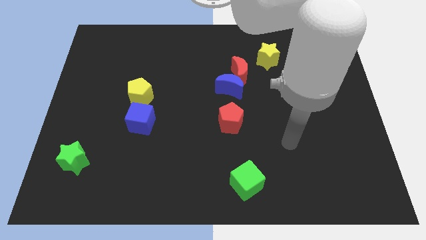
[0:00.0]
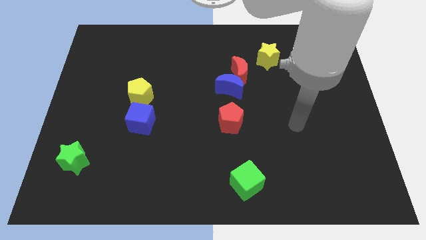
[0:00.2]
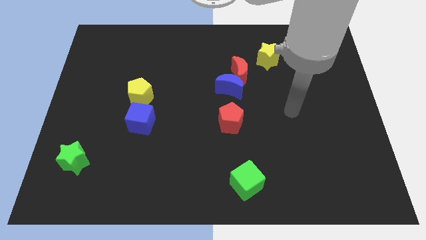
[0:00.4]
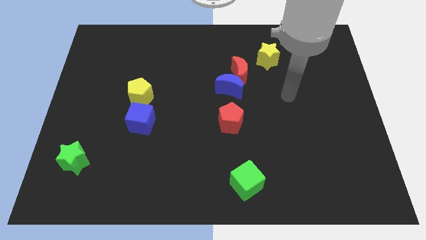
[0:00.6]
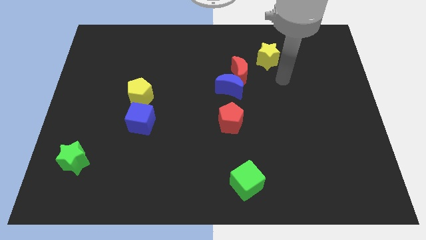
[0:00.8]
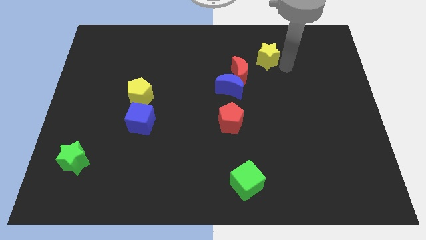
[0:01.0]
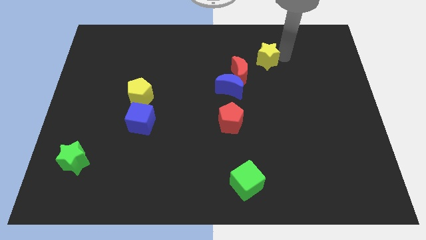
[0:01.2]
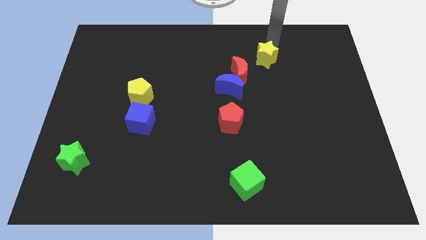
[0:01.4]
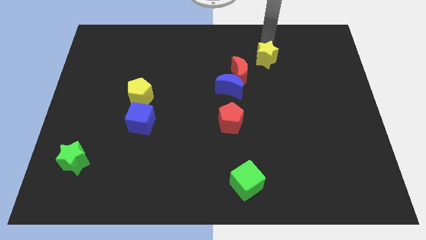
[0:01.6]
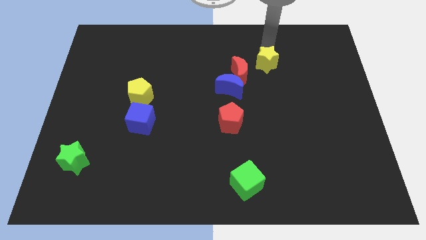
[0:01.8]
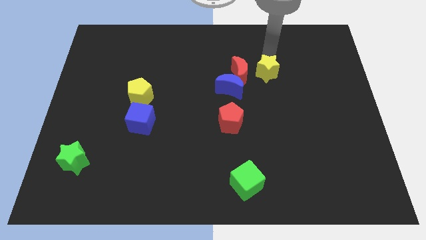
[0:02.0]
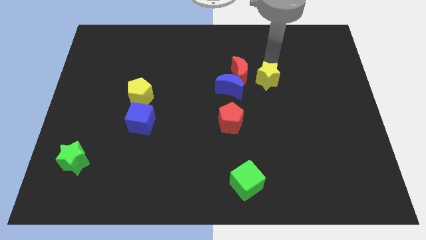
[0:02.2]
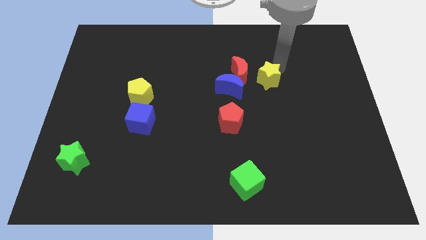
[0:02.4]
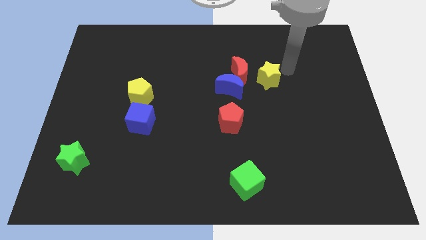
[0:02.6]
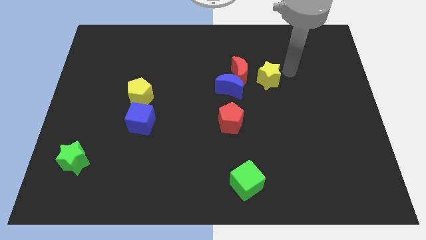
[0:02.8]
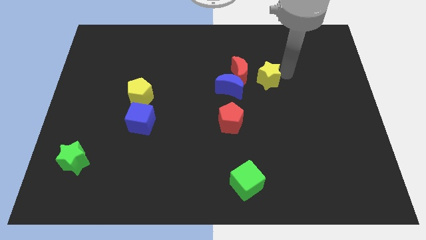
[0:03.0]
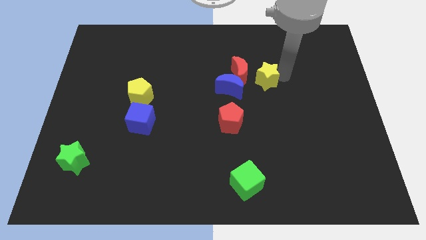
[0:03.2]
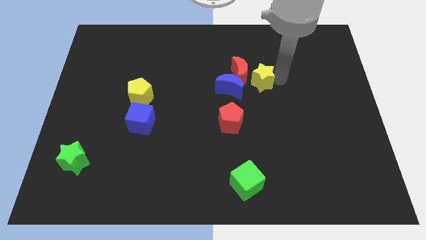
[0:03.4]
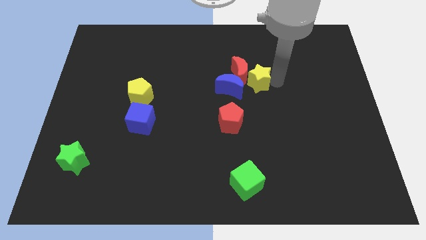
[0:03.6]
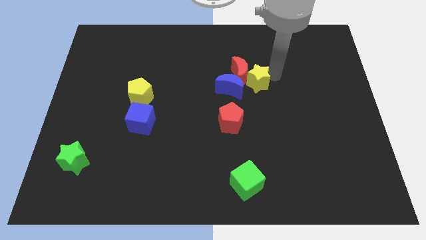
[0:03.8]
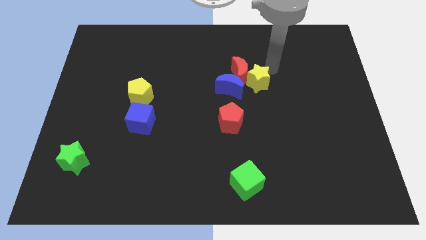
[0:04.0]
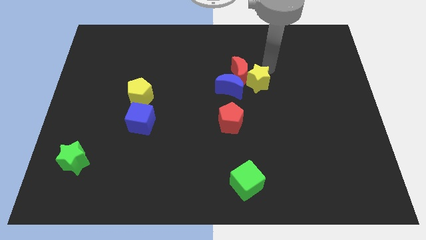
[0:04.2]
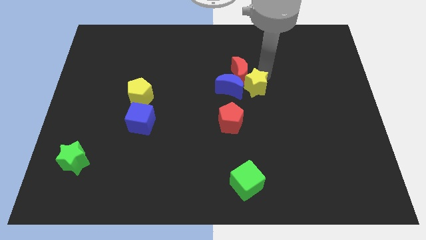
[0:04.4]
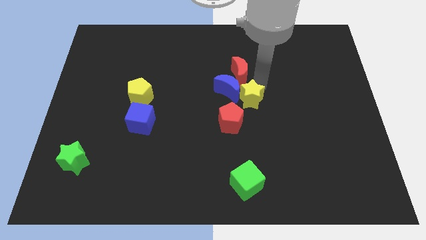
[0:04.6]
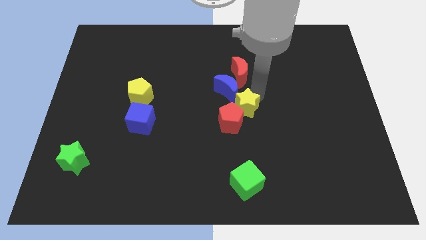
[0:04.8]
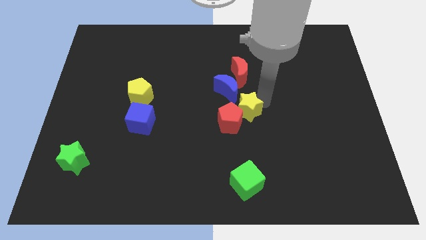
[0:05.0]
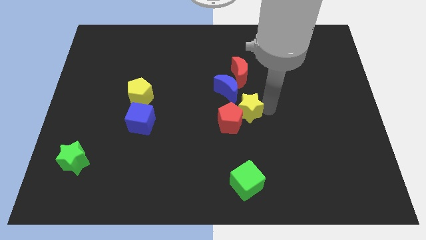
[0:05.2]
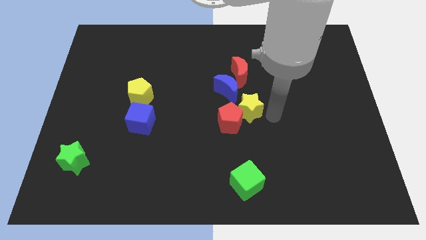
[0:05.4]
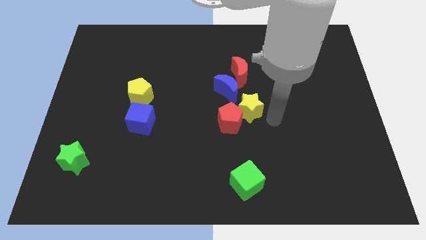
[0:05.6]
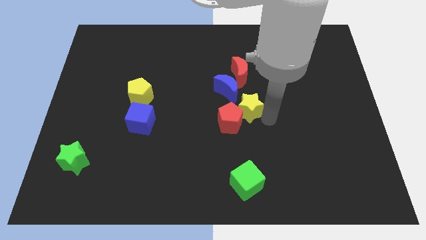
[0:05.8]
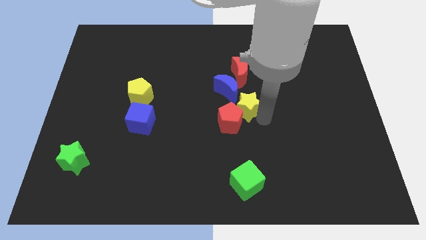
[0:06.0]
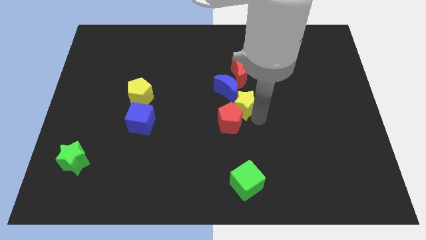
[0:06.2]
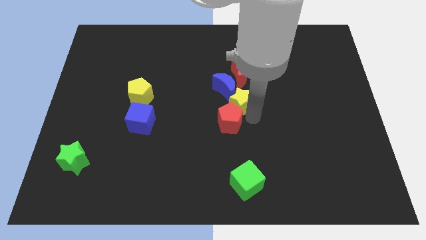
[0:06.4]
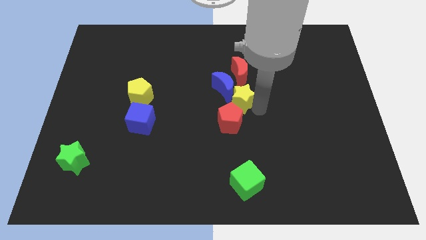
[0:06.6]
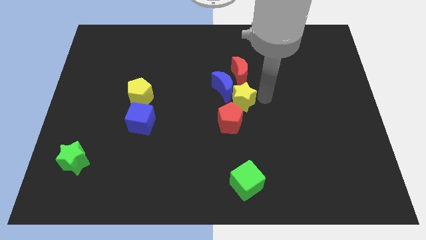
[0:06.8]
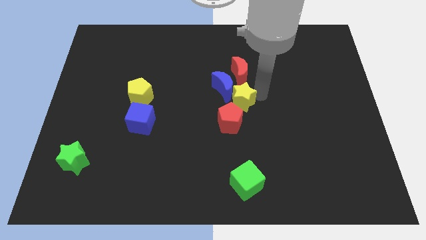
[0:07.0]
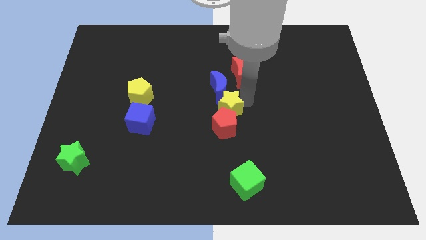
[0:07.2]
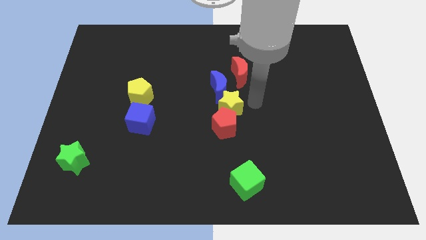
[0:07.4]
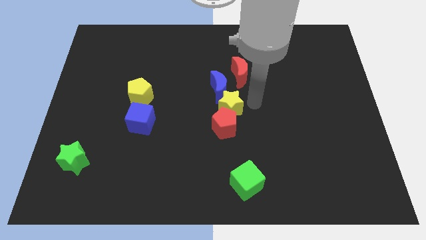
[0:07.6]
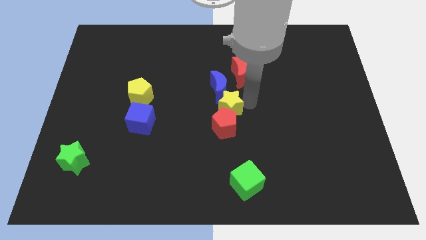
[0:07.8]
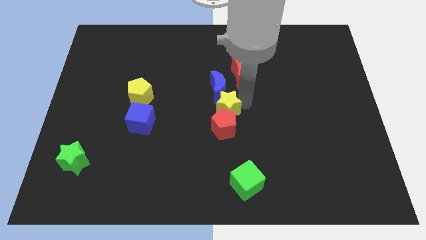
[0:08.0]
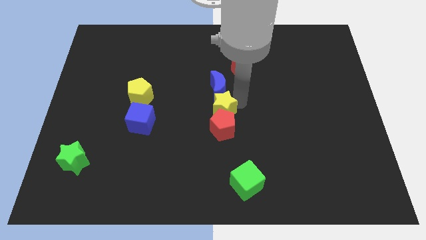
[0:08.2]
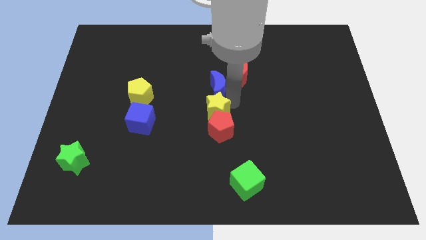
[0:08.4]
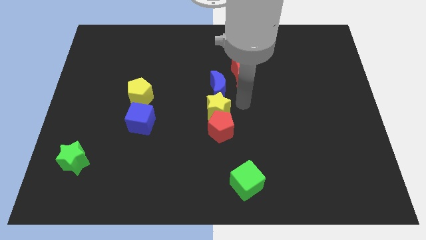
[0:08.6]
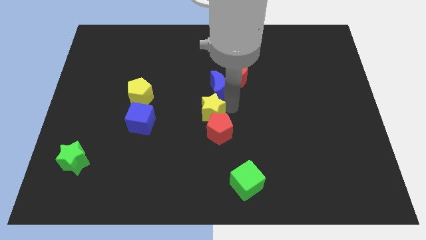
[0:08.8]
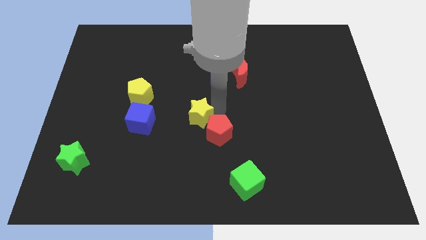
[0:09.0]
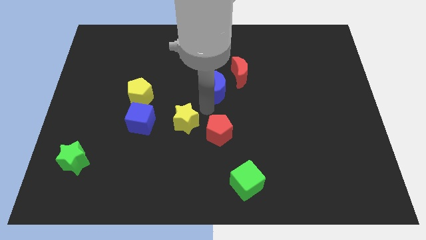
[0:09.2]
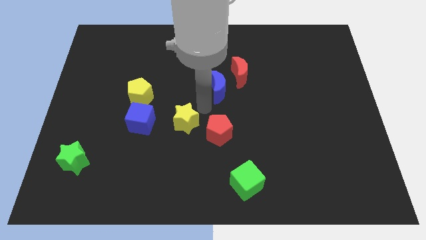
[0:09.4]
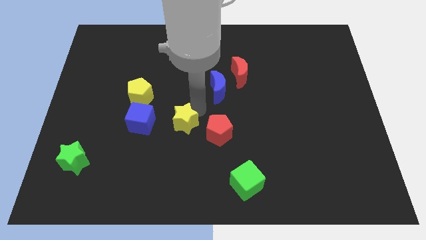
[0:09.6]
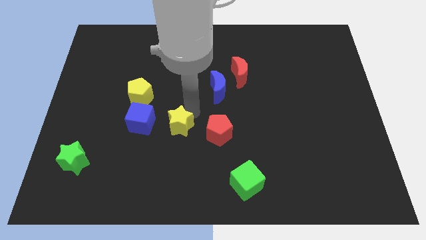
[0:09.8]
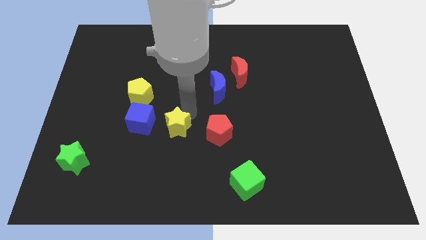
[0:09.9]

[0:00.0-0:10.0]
slide the yellow star to the bottom right side of the blue cube

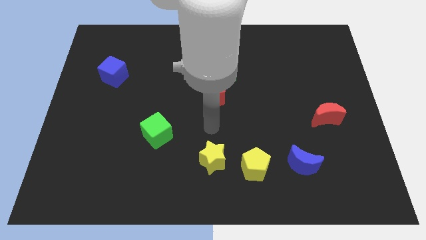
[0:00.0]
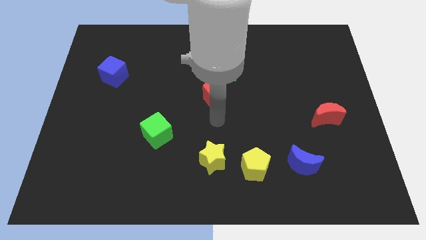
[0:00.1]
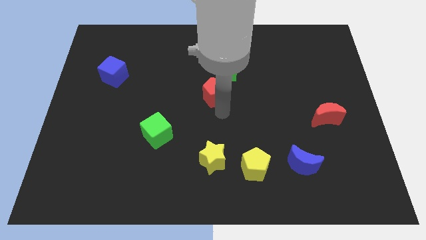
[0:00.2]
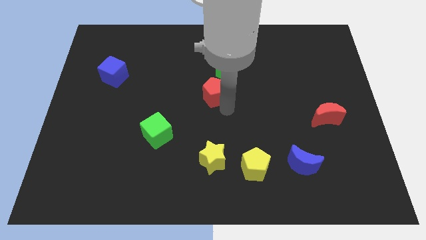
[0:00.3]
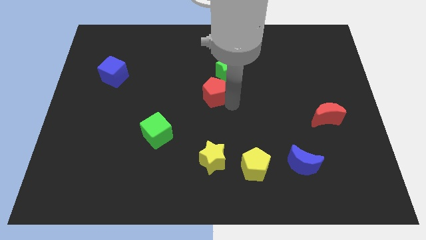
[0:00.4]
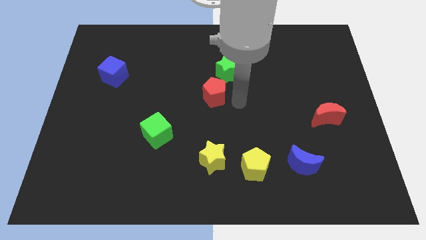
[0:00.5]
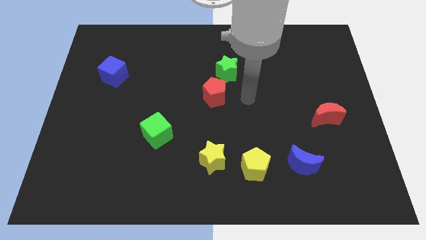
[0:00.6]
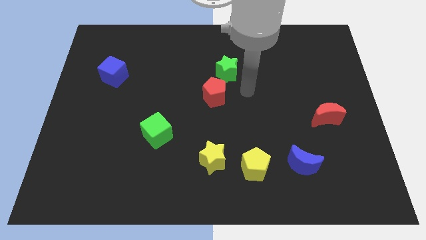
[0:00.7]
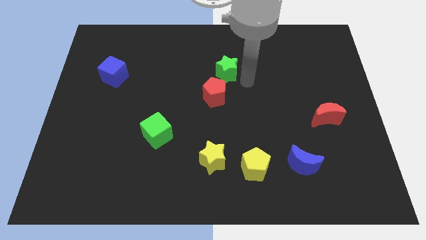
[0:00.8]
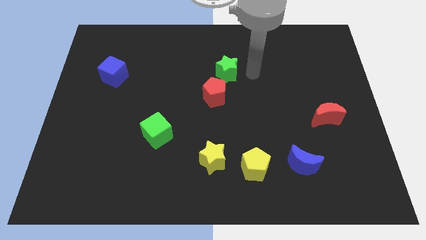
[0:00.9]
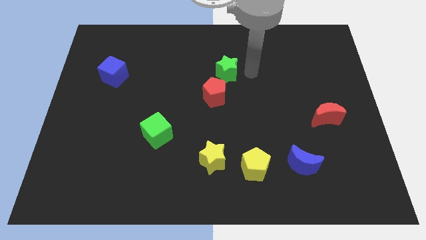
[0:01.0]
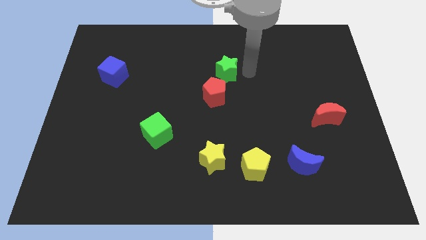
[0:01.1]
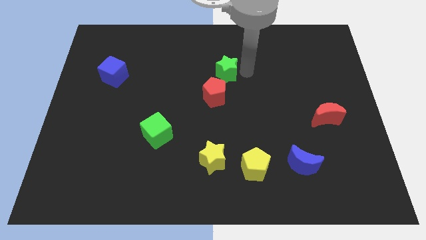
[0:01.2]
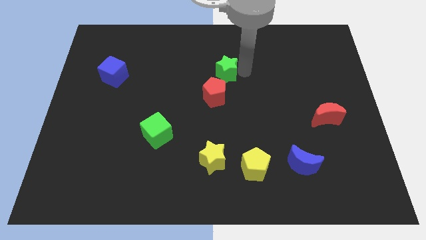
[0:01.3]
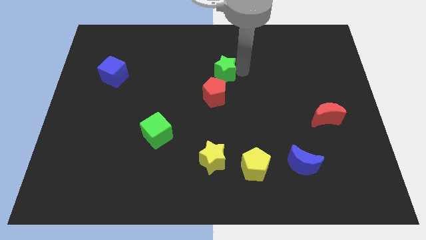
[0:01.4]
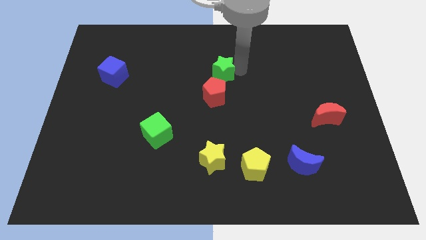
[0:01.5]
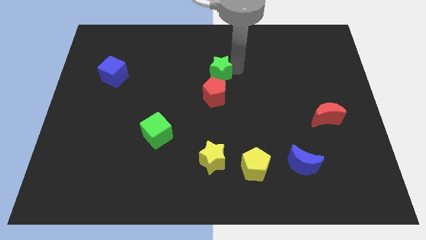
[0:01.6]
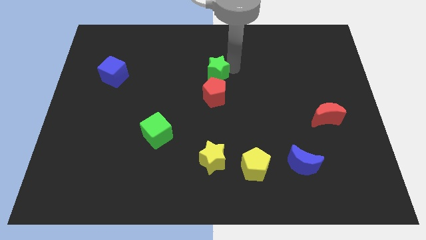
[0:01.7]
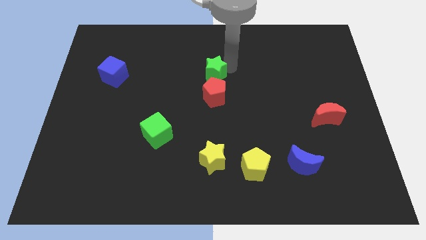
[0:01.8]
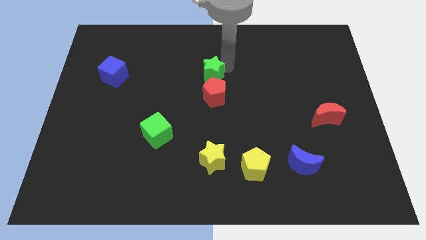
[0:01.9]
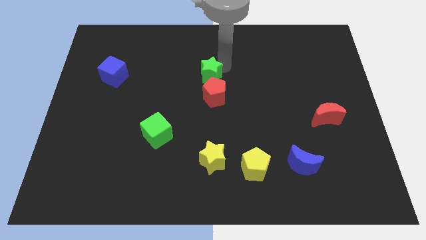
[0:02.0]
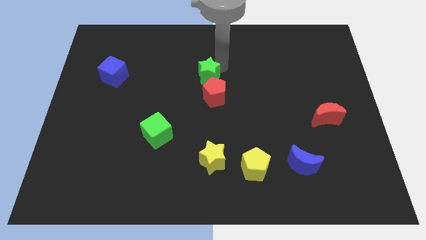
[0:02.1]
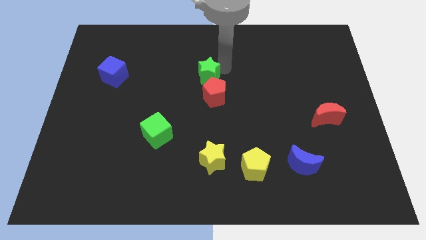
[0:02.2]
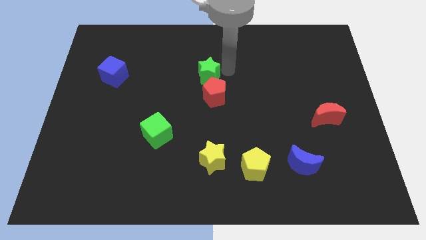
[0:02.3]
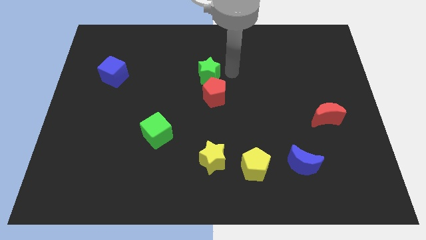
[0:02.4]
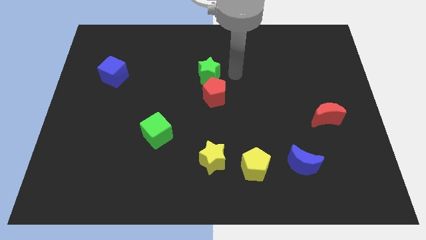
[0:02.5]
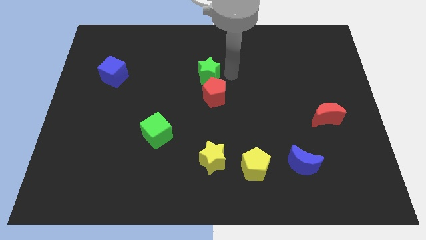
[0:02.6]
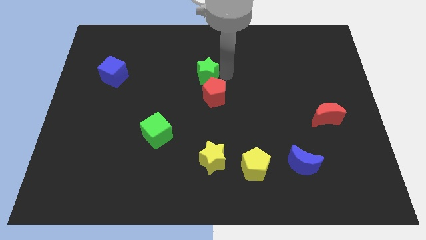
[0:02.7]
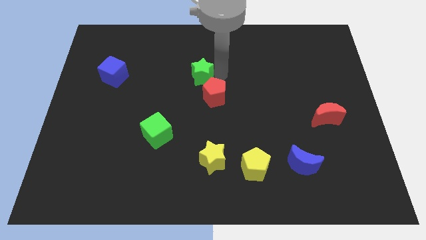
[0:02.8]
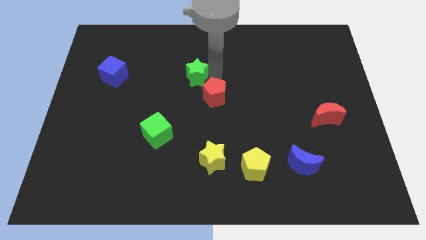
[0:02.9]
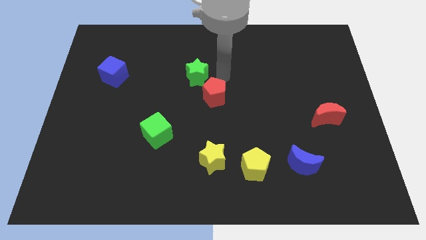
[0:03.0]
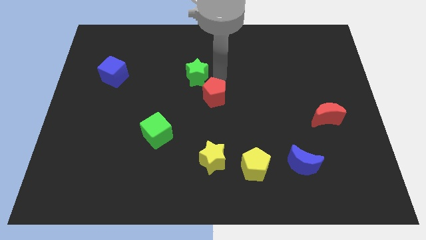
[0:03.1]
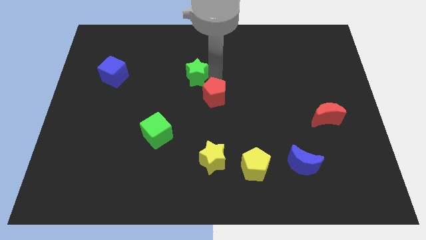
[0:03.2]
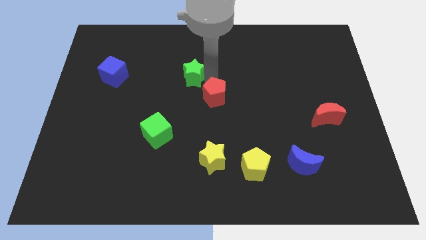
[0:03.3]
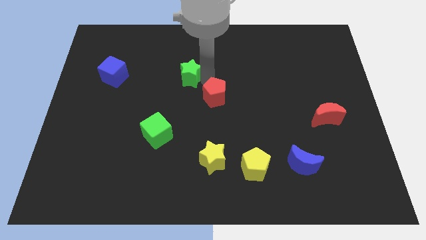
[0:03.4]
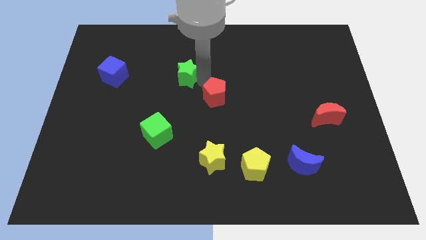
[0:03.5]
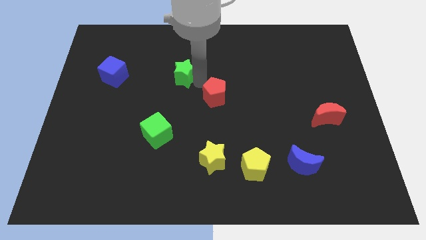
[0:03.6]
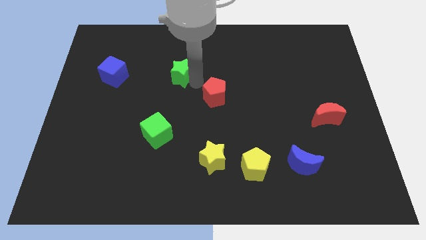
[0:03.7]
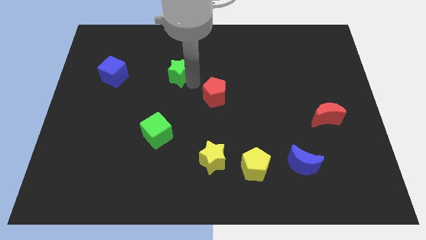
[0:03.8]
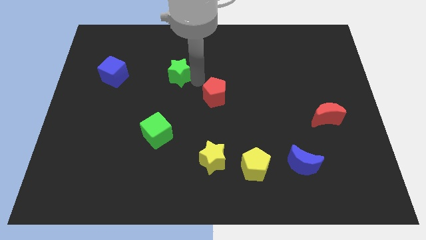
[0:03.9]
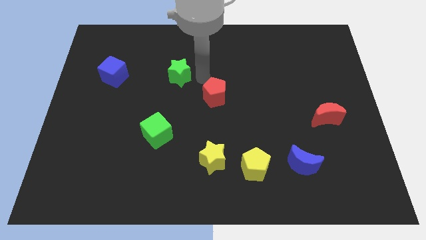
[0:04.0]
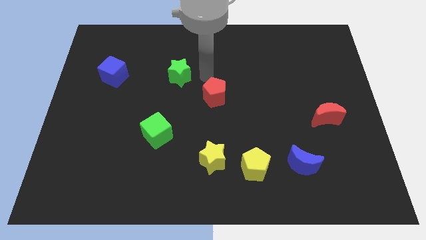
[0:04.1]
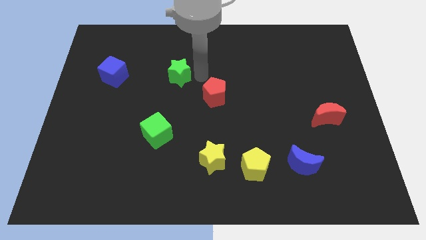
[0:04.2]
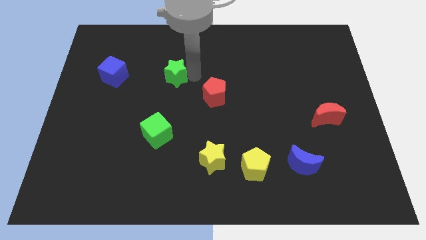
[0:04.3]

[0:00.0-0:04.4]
slide the green star to the right side of the blue cube
